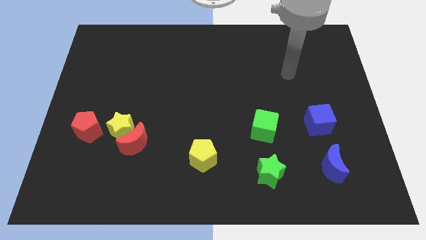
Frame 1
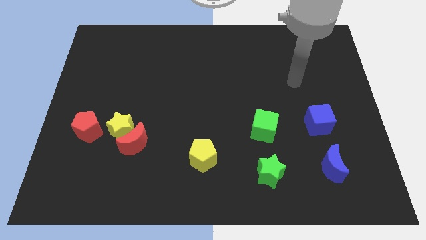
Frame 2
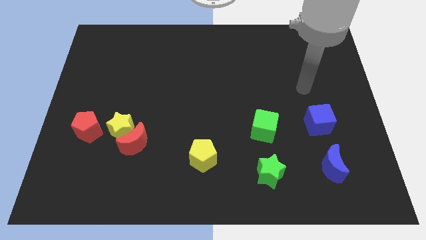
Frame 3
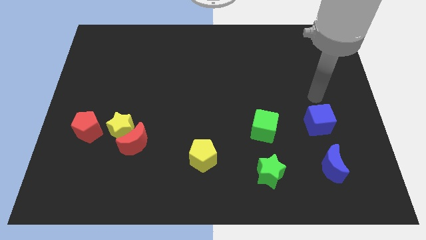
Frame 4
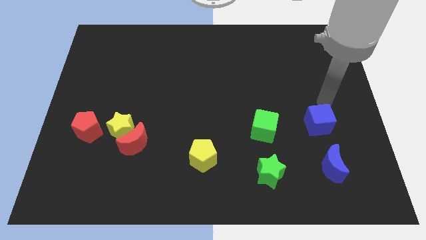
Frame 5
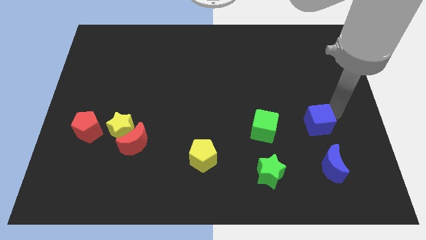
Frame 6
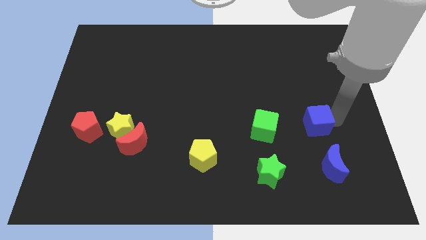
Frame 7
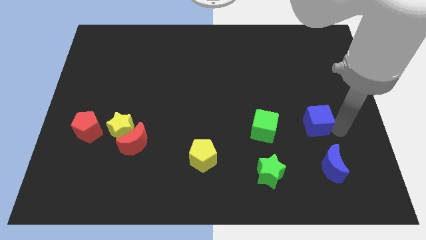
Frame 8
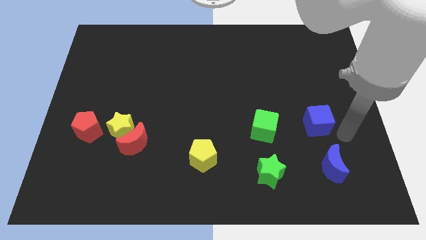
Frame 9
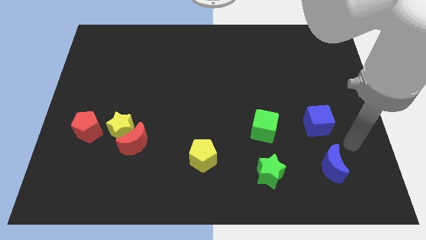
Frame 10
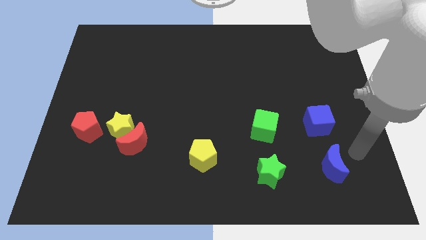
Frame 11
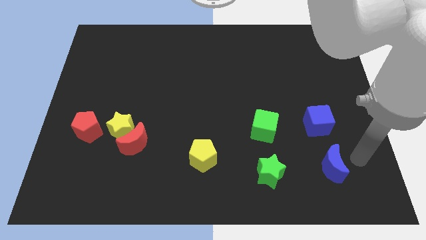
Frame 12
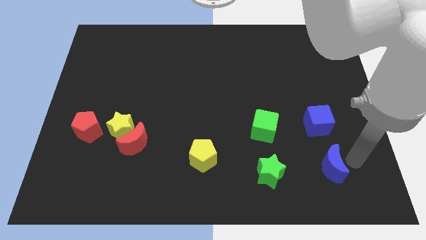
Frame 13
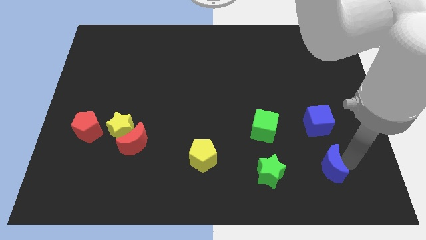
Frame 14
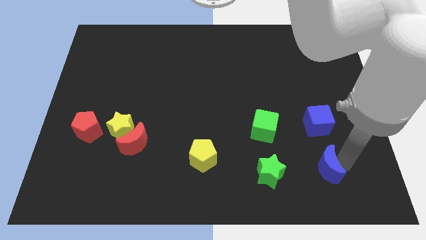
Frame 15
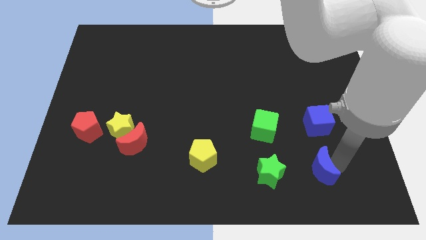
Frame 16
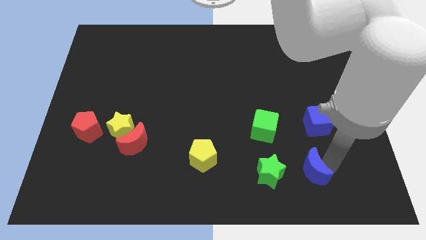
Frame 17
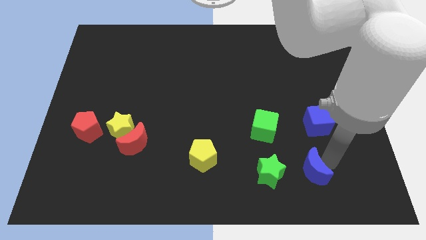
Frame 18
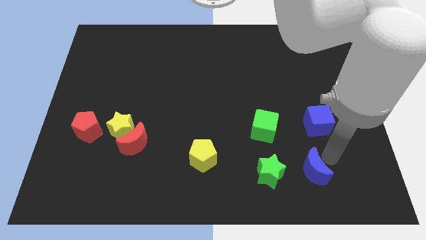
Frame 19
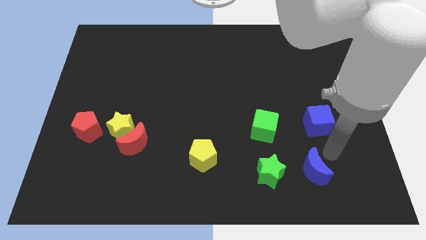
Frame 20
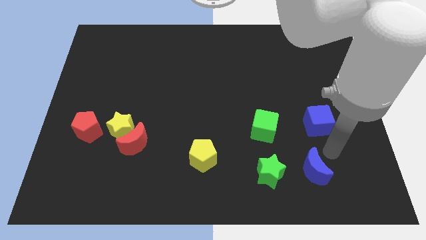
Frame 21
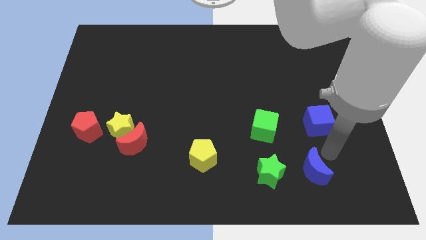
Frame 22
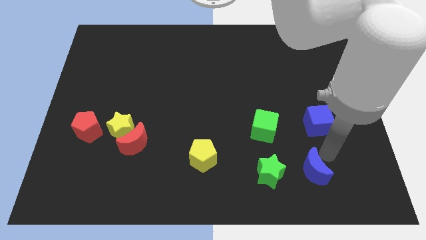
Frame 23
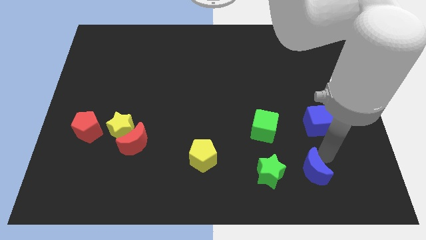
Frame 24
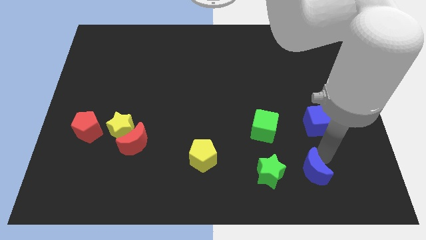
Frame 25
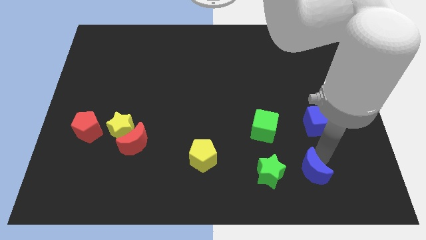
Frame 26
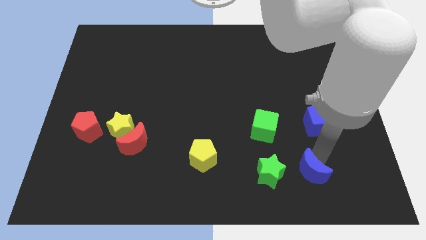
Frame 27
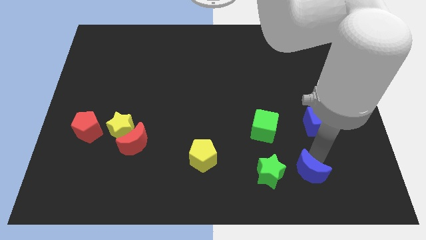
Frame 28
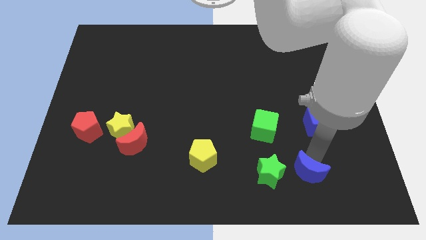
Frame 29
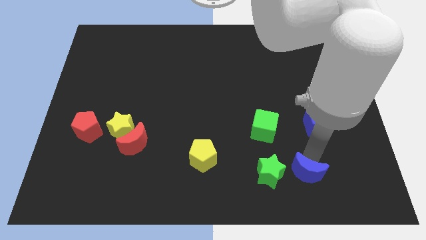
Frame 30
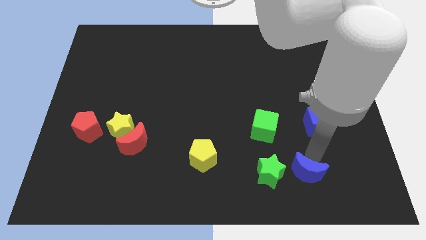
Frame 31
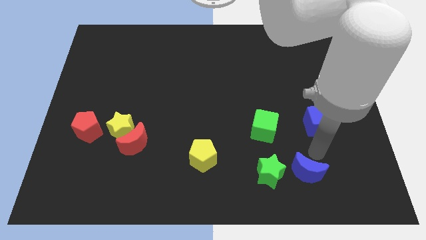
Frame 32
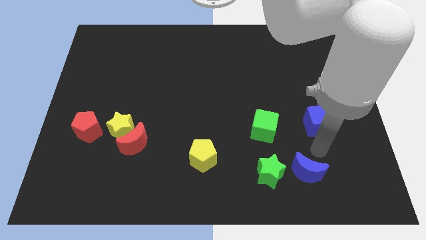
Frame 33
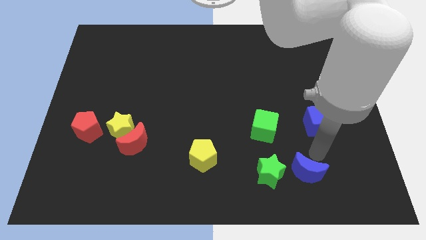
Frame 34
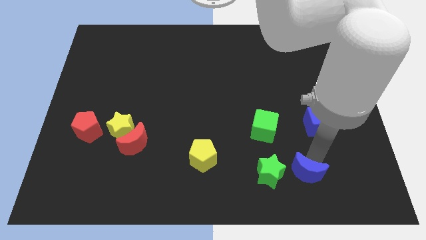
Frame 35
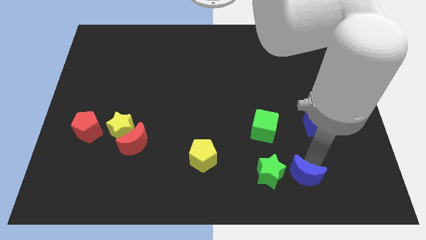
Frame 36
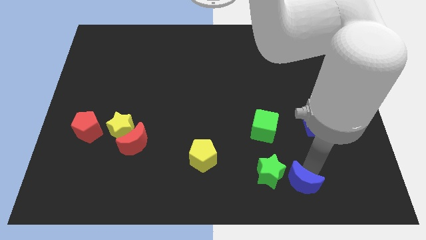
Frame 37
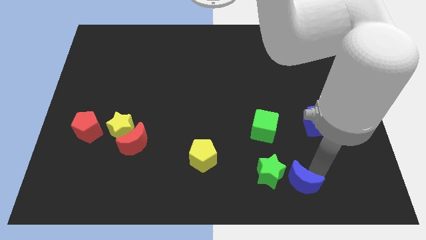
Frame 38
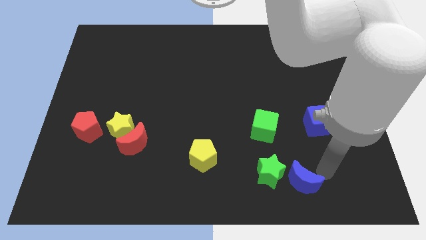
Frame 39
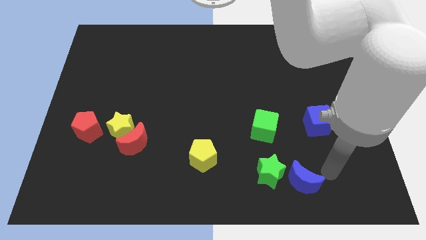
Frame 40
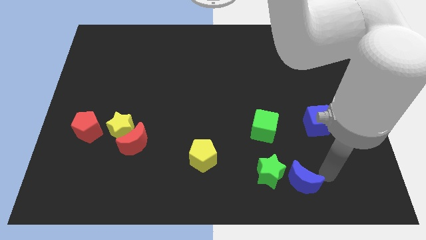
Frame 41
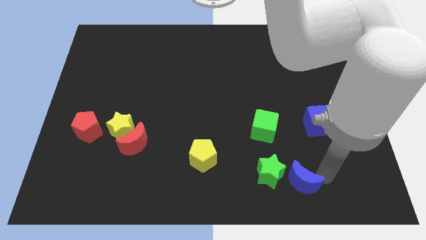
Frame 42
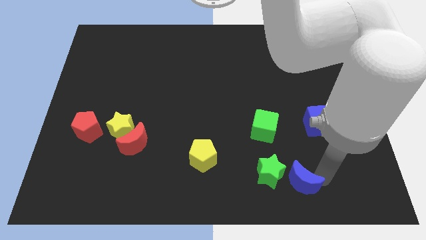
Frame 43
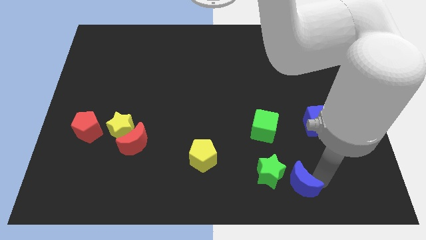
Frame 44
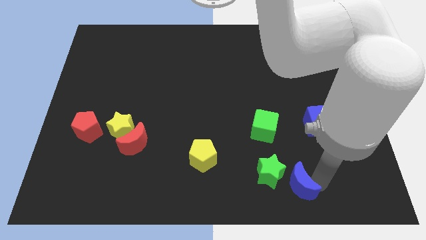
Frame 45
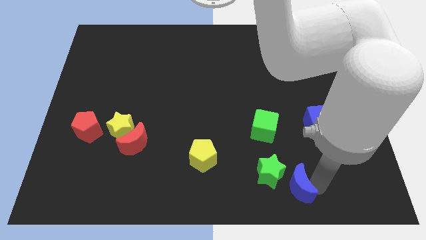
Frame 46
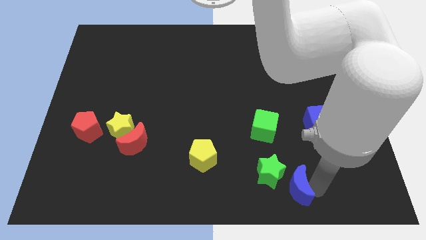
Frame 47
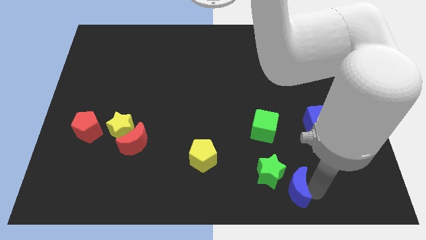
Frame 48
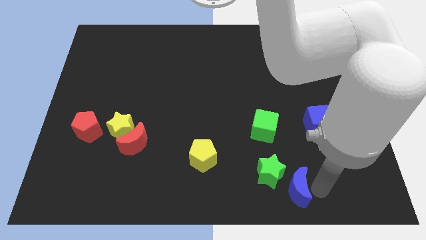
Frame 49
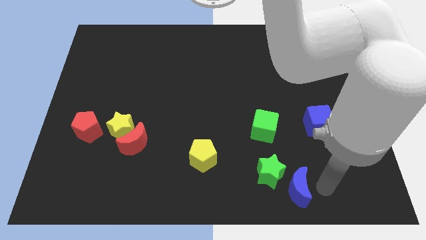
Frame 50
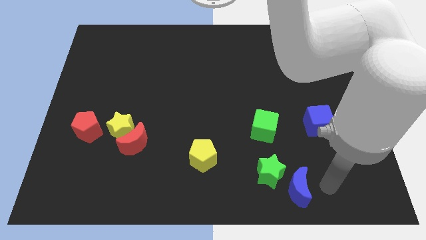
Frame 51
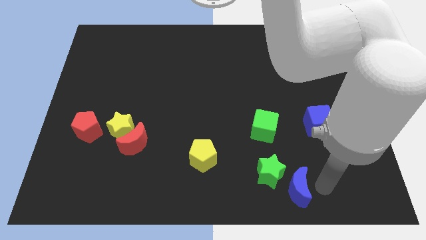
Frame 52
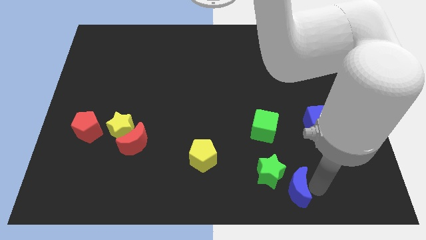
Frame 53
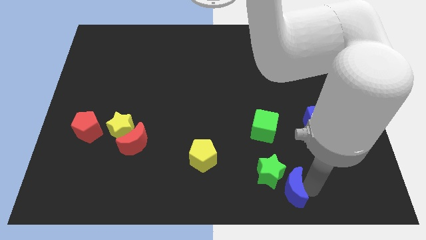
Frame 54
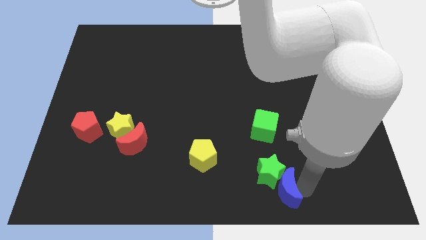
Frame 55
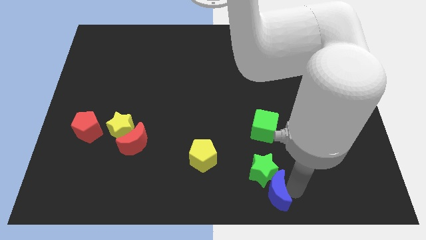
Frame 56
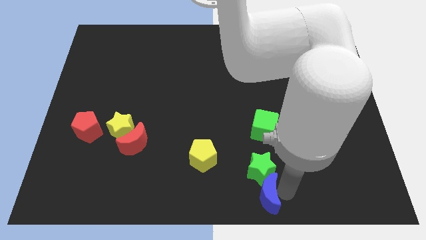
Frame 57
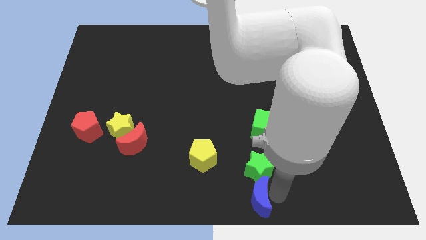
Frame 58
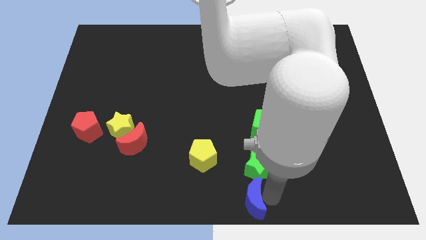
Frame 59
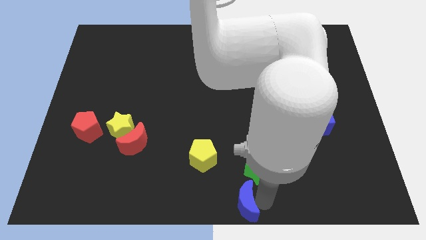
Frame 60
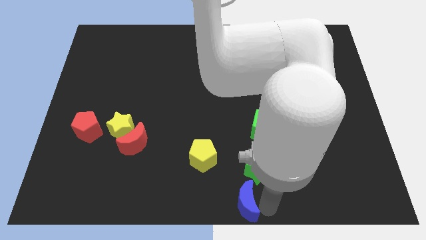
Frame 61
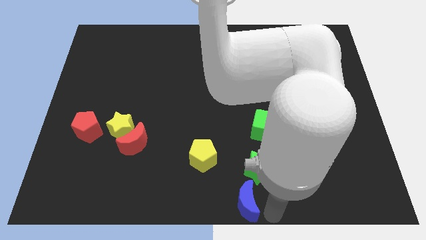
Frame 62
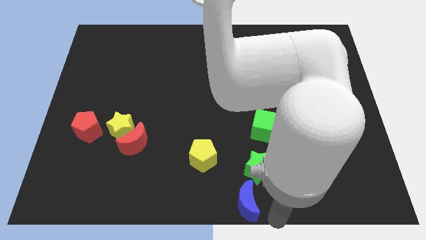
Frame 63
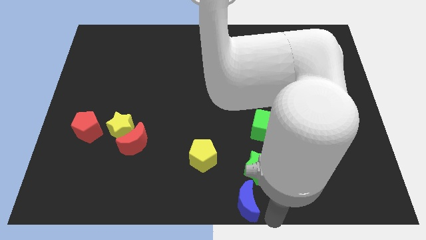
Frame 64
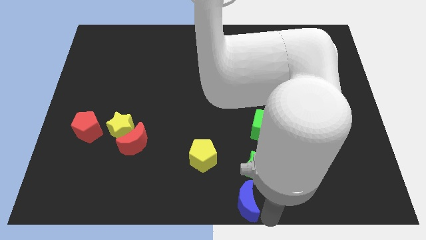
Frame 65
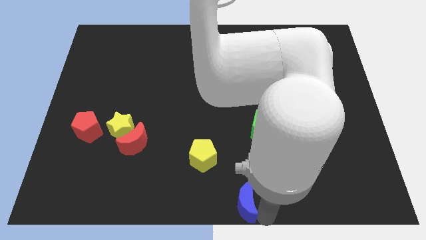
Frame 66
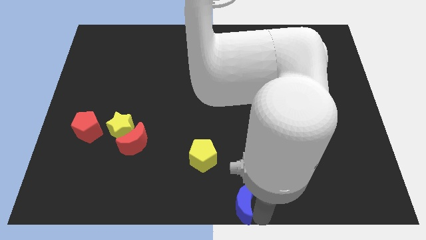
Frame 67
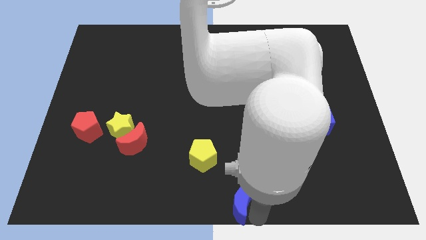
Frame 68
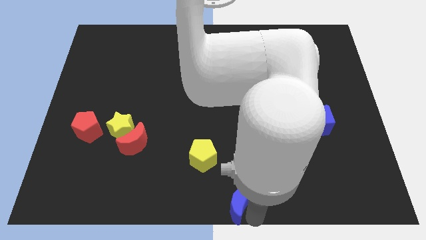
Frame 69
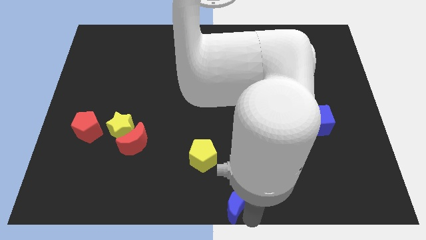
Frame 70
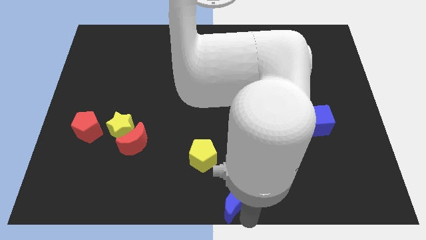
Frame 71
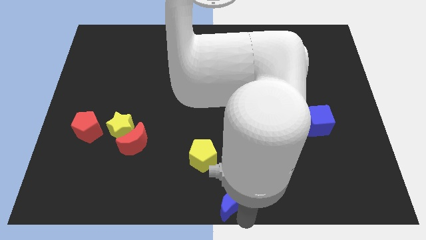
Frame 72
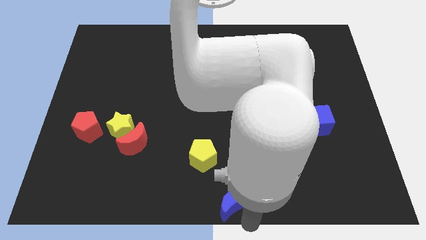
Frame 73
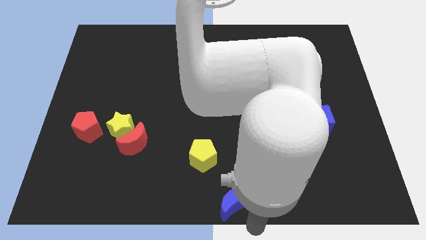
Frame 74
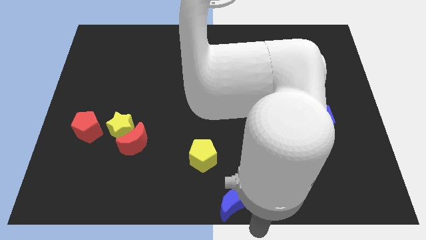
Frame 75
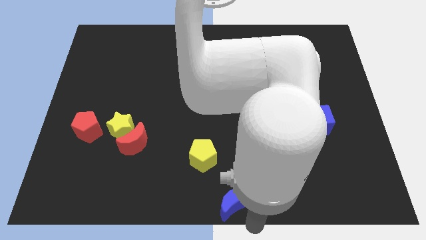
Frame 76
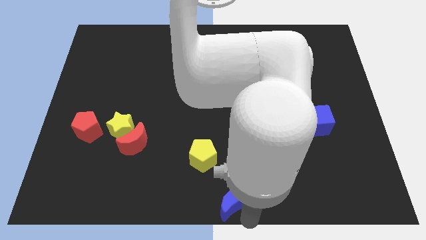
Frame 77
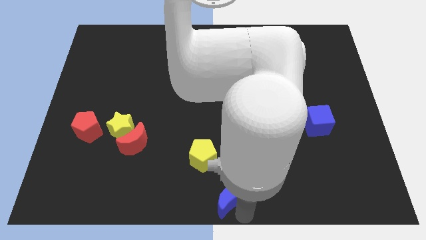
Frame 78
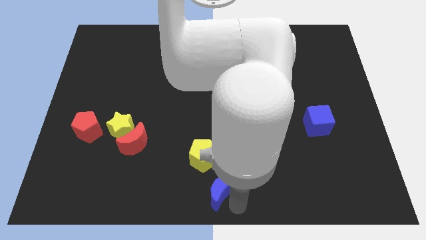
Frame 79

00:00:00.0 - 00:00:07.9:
slide the blue moon to the left

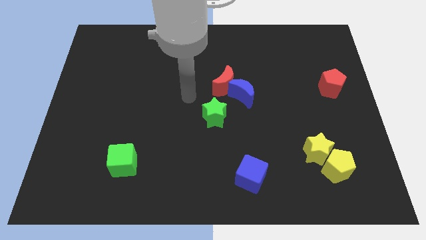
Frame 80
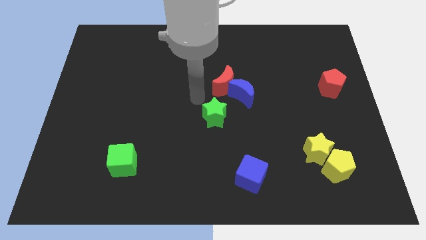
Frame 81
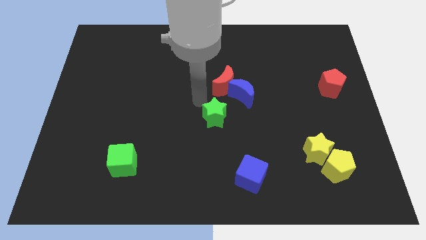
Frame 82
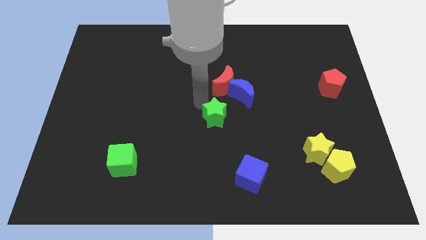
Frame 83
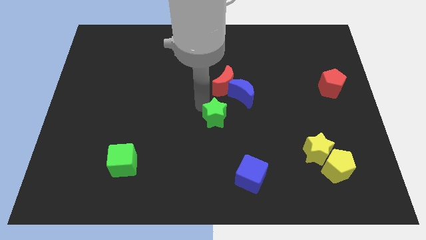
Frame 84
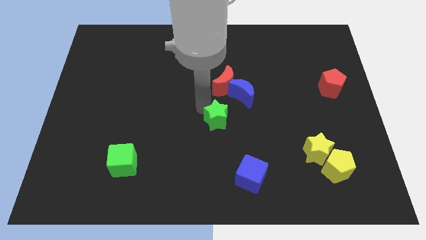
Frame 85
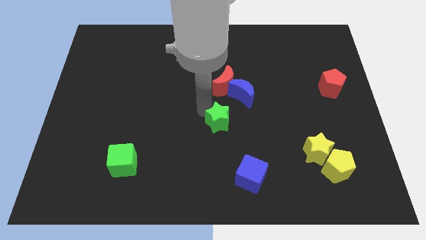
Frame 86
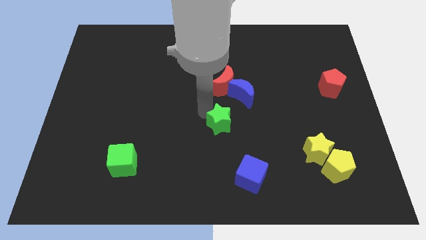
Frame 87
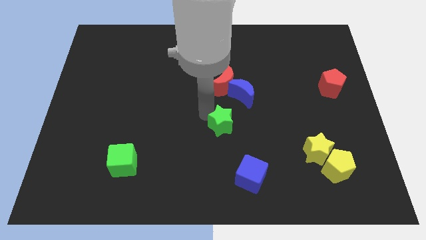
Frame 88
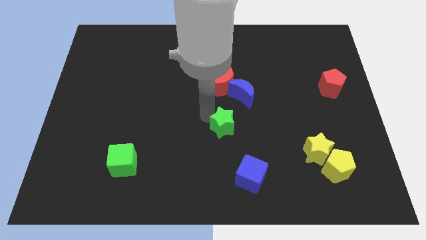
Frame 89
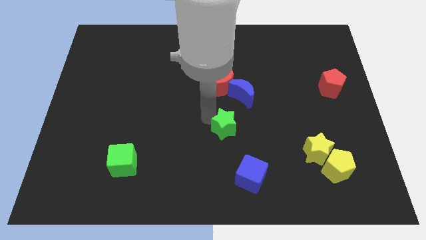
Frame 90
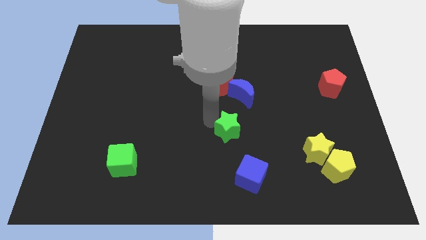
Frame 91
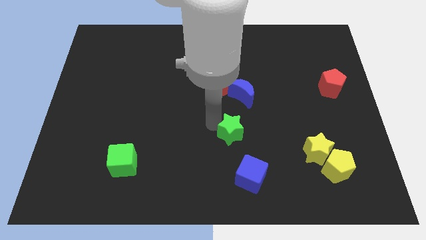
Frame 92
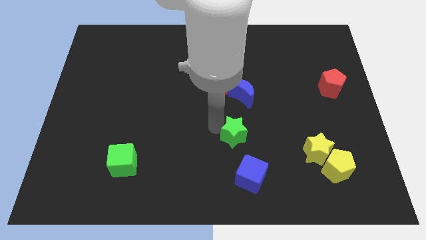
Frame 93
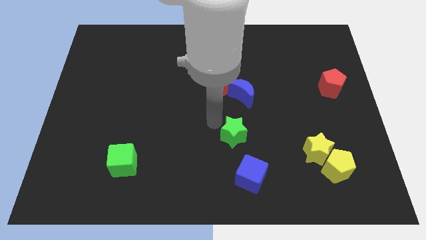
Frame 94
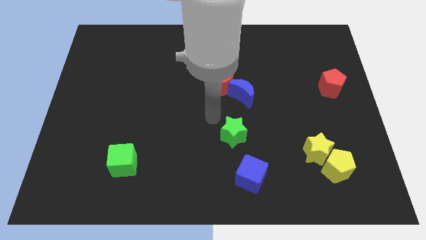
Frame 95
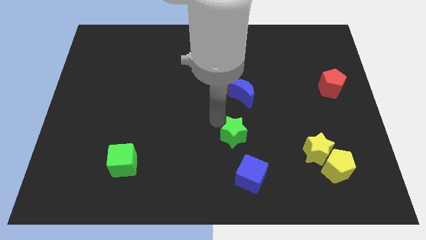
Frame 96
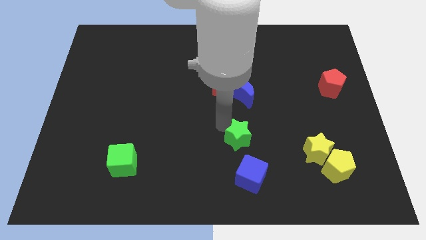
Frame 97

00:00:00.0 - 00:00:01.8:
move the green star slightly down and to the right diagonally
